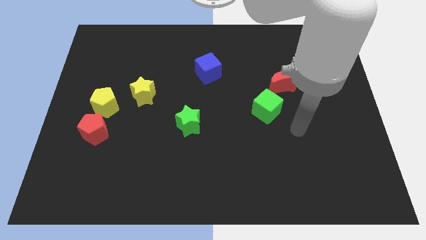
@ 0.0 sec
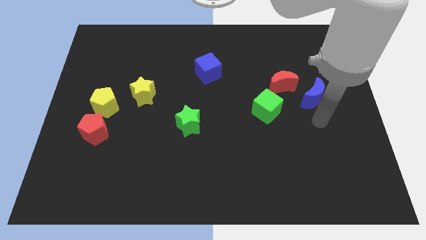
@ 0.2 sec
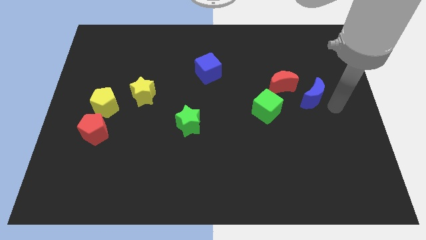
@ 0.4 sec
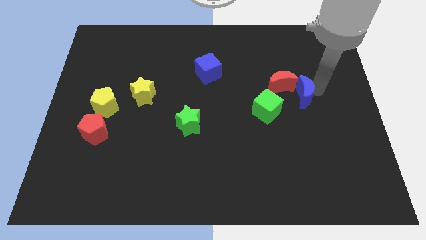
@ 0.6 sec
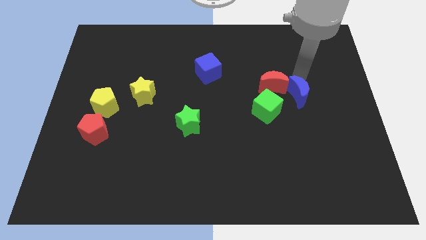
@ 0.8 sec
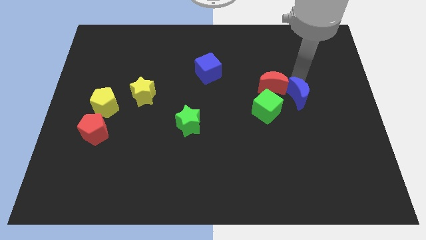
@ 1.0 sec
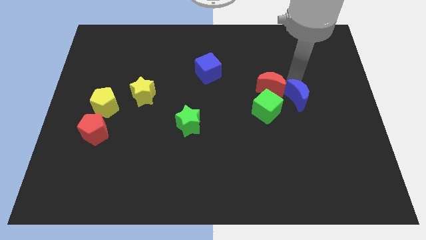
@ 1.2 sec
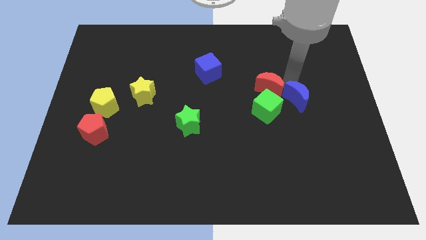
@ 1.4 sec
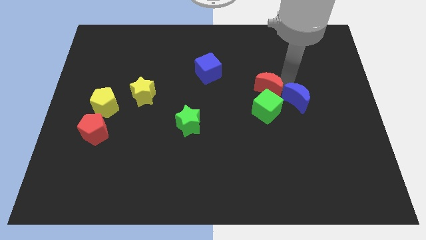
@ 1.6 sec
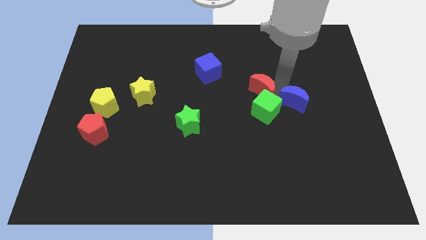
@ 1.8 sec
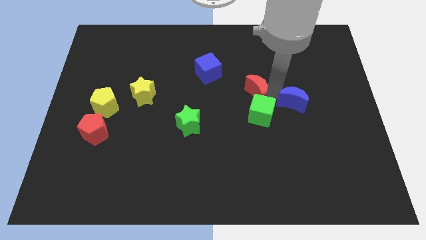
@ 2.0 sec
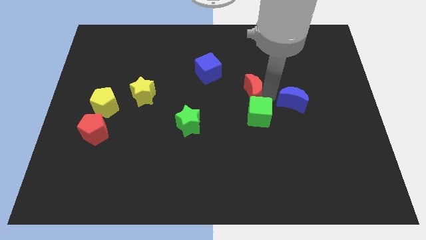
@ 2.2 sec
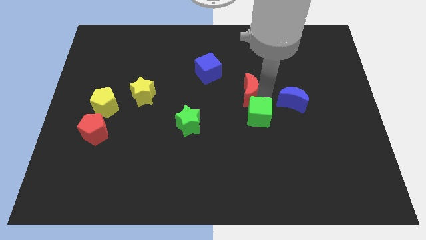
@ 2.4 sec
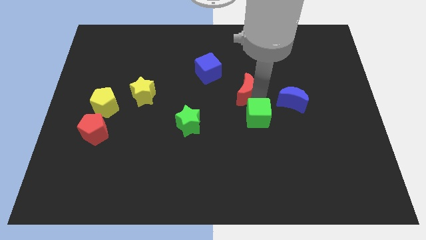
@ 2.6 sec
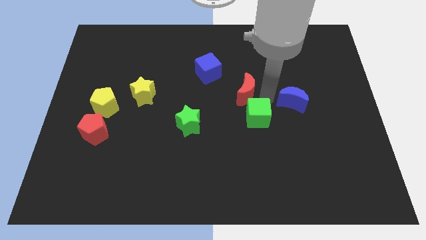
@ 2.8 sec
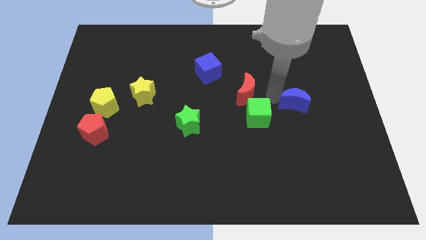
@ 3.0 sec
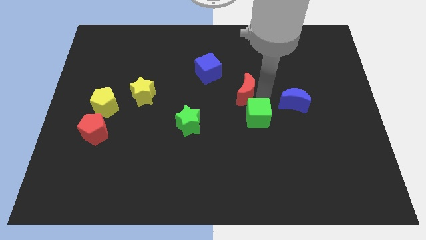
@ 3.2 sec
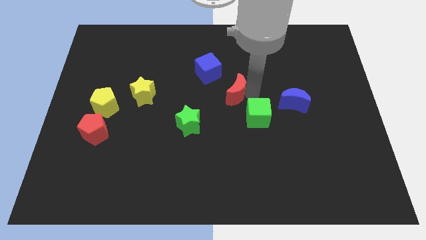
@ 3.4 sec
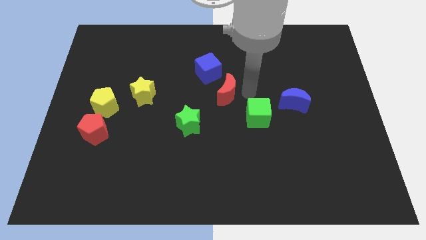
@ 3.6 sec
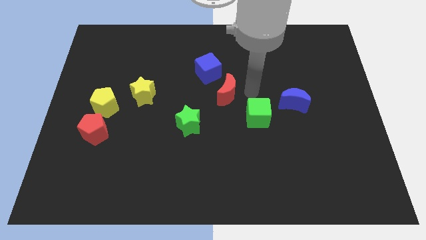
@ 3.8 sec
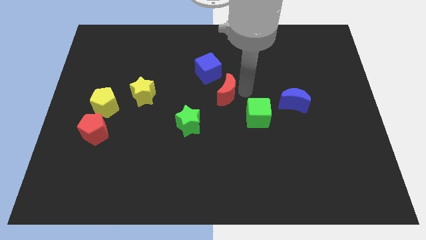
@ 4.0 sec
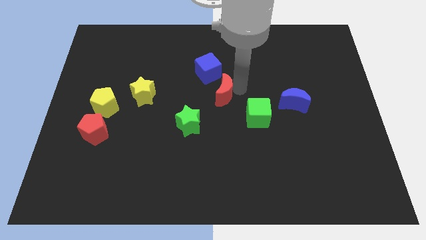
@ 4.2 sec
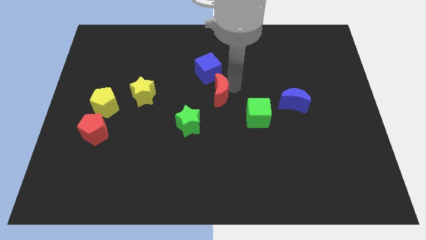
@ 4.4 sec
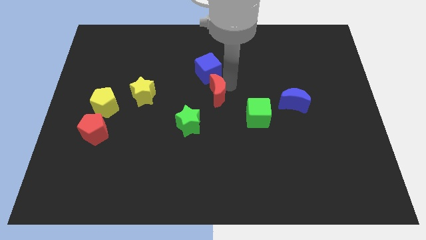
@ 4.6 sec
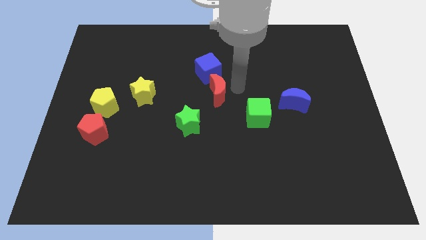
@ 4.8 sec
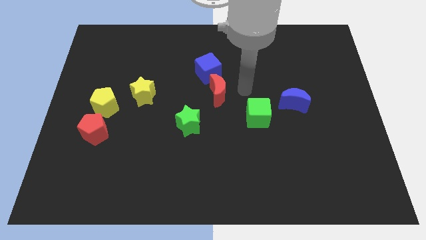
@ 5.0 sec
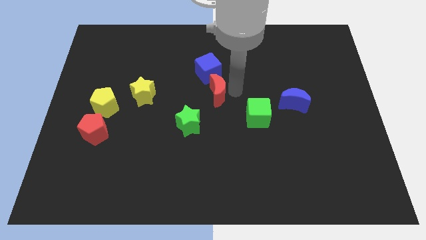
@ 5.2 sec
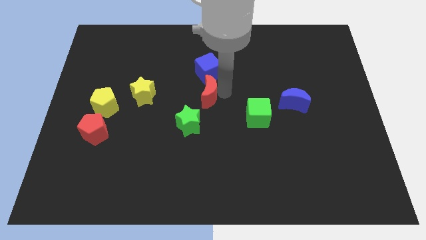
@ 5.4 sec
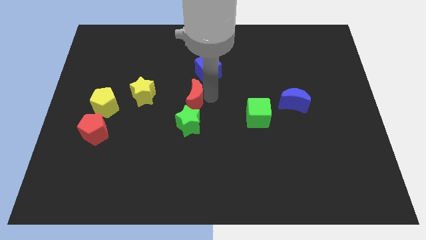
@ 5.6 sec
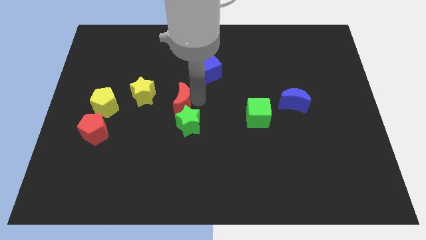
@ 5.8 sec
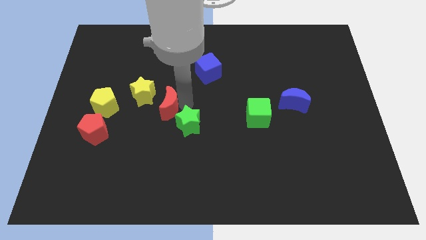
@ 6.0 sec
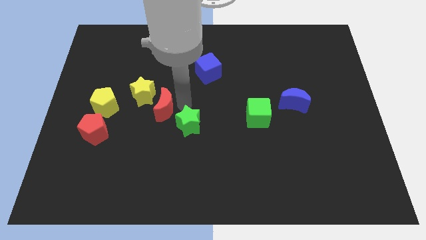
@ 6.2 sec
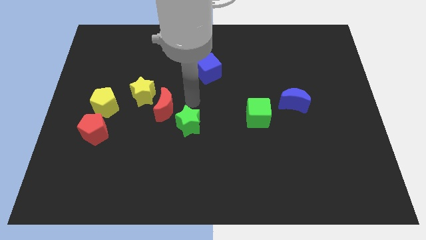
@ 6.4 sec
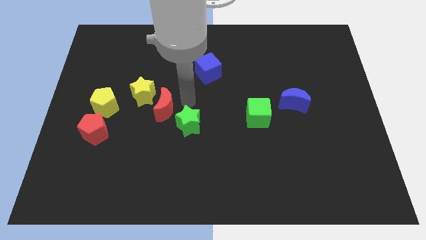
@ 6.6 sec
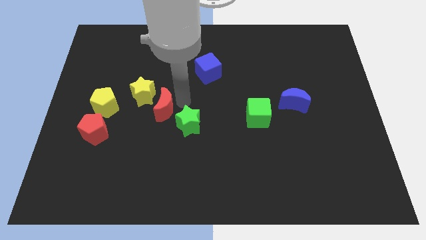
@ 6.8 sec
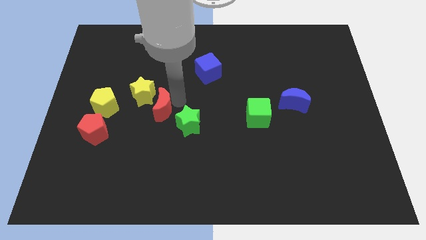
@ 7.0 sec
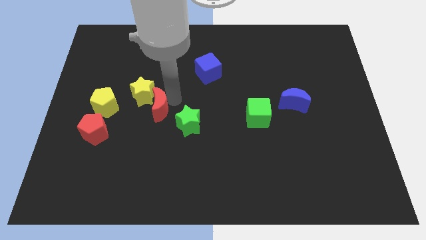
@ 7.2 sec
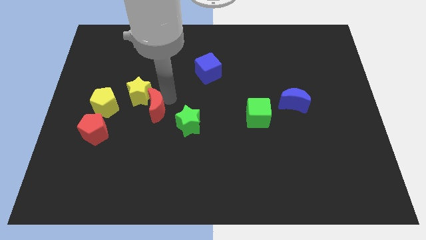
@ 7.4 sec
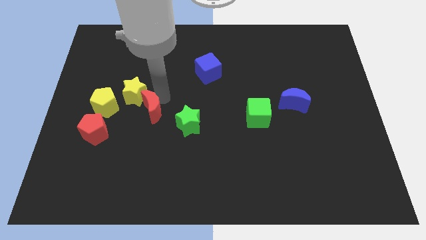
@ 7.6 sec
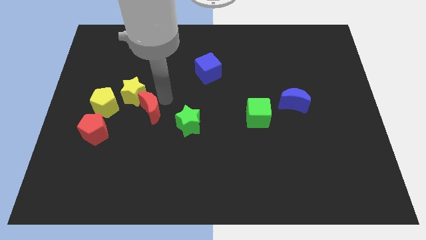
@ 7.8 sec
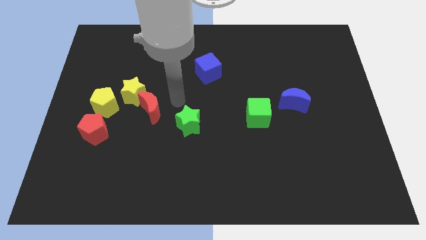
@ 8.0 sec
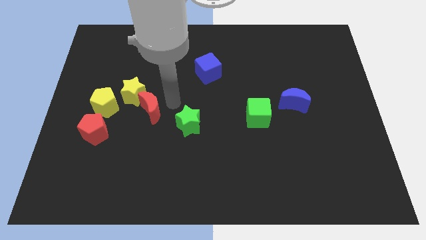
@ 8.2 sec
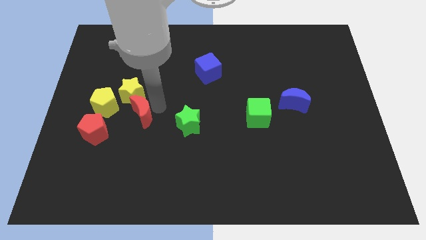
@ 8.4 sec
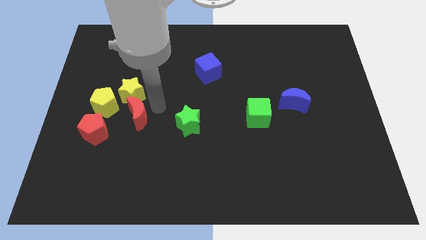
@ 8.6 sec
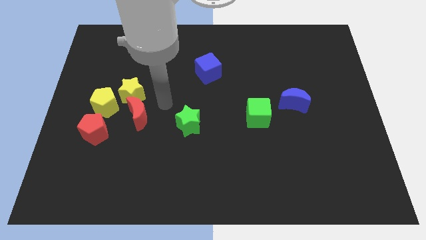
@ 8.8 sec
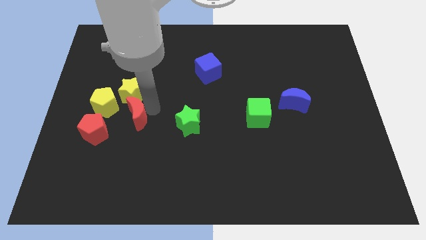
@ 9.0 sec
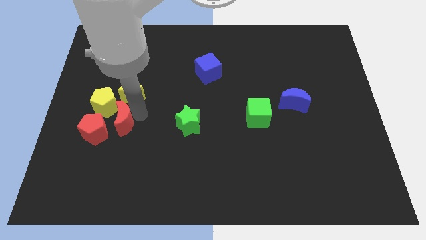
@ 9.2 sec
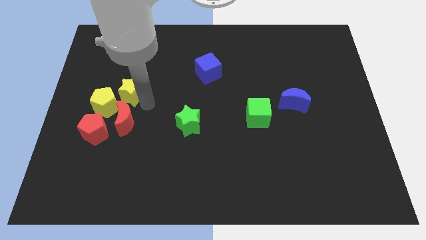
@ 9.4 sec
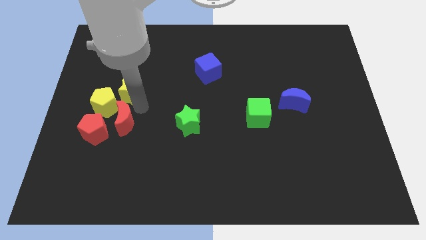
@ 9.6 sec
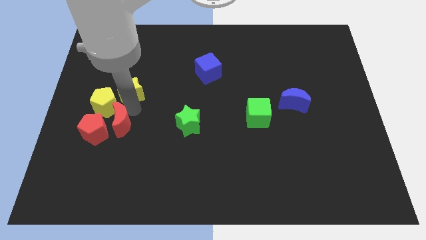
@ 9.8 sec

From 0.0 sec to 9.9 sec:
move the red moon to the bottom side of the yellow pentagon

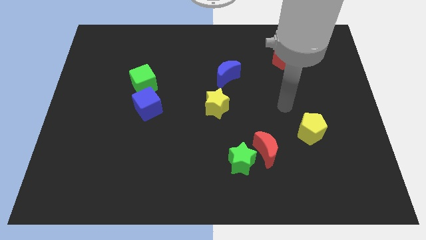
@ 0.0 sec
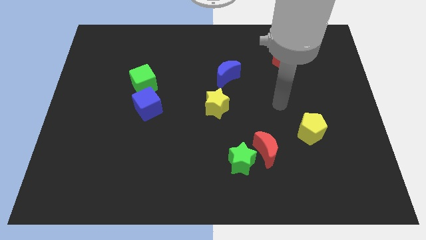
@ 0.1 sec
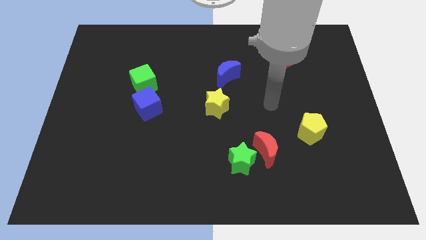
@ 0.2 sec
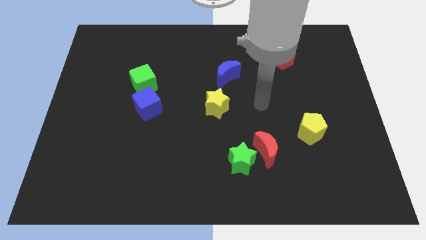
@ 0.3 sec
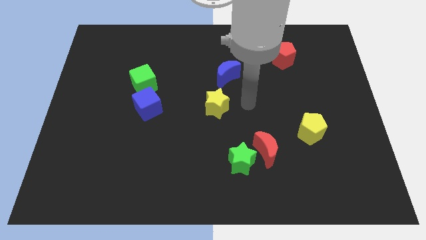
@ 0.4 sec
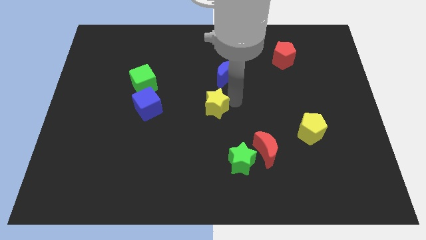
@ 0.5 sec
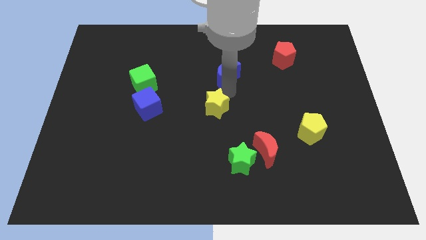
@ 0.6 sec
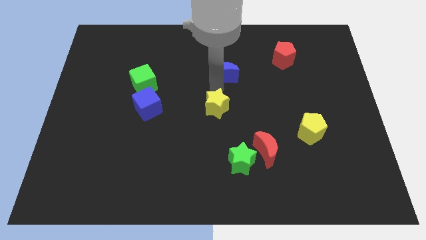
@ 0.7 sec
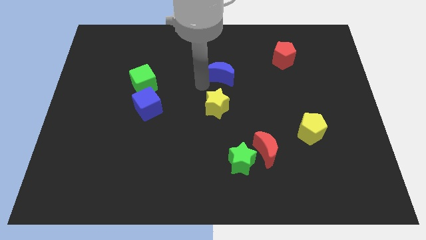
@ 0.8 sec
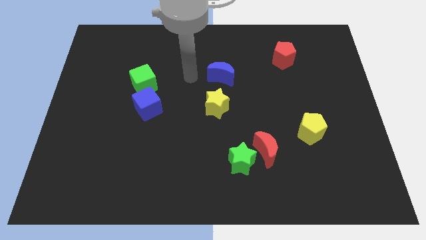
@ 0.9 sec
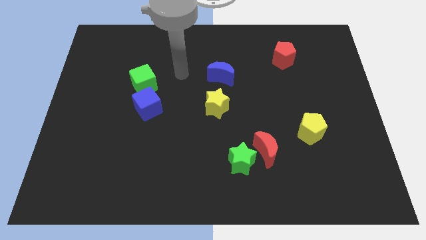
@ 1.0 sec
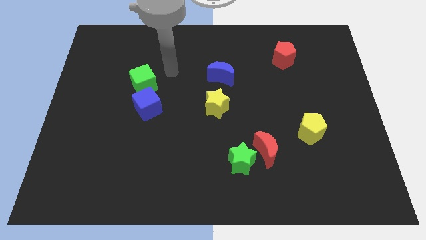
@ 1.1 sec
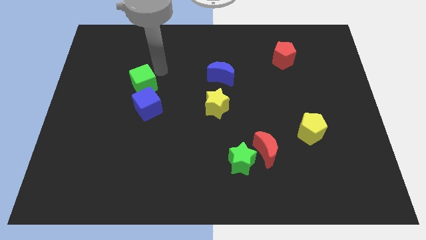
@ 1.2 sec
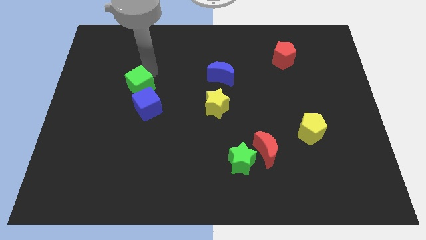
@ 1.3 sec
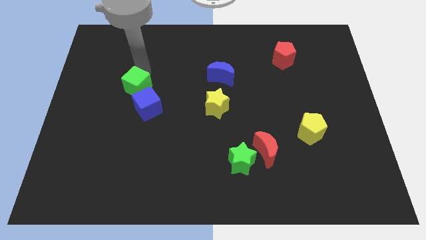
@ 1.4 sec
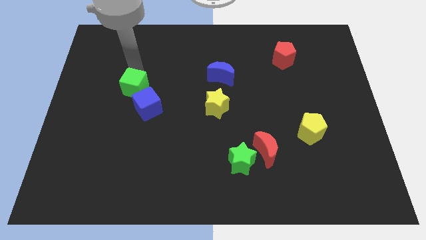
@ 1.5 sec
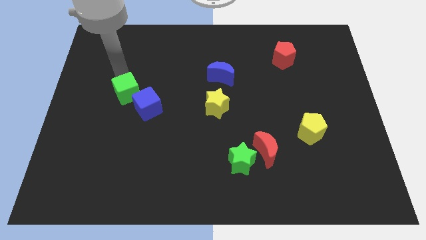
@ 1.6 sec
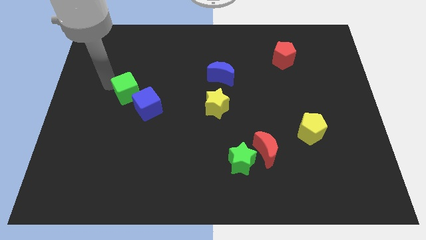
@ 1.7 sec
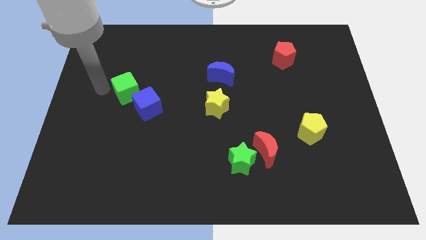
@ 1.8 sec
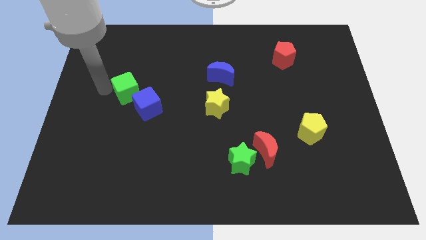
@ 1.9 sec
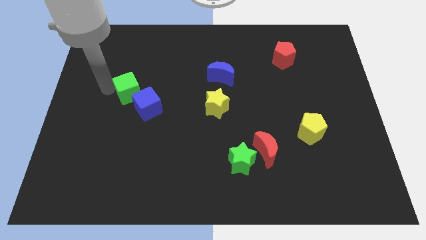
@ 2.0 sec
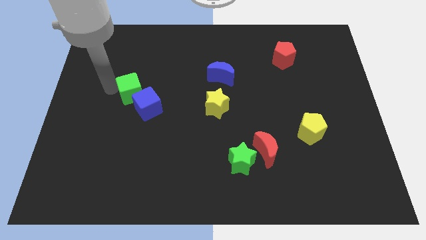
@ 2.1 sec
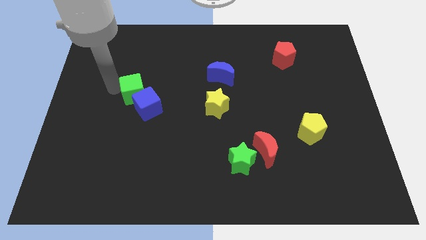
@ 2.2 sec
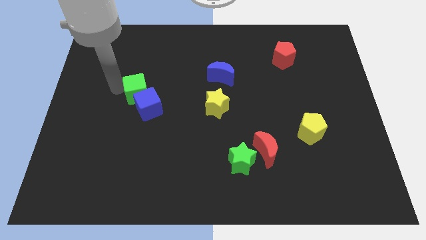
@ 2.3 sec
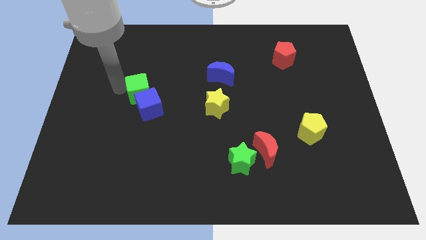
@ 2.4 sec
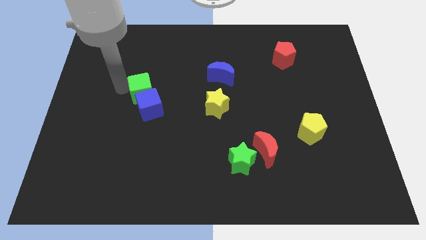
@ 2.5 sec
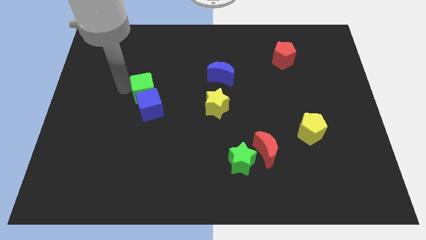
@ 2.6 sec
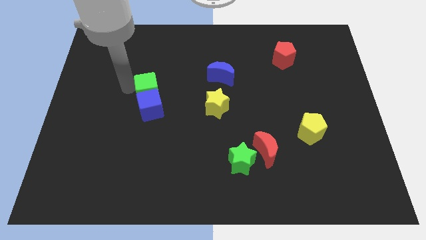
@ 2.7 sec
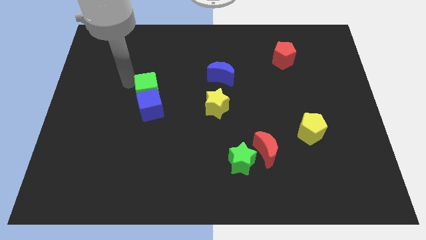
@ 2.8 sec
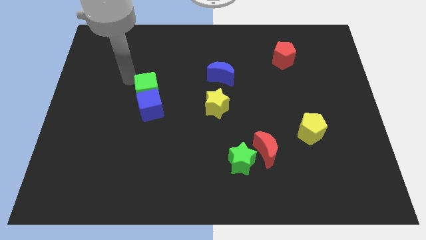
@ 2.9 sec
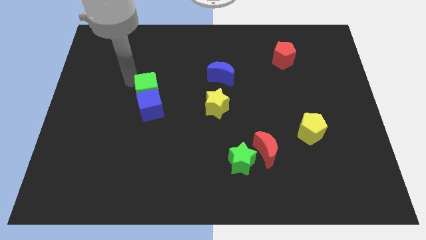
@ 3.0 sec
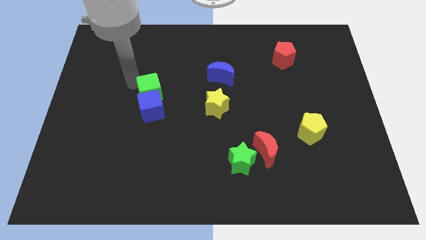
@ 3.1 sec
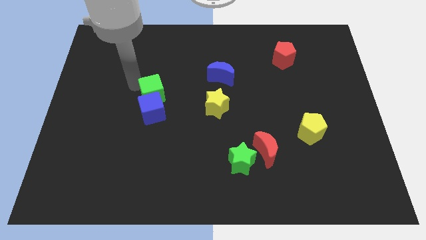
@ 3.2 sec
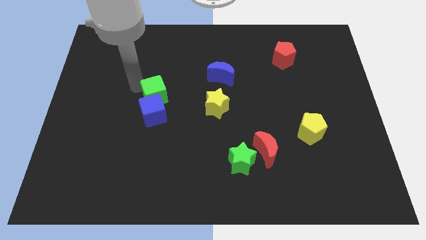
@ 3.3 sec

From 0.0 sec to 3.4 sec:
move the green cube just left of the yellow star
